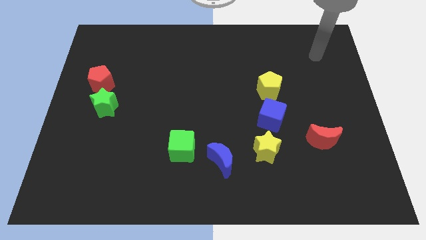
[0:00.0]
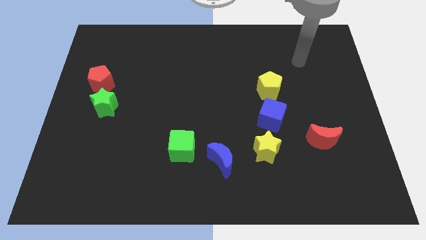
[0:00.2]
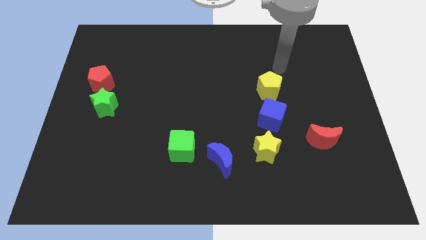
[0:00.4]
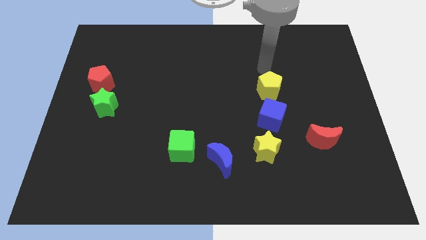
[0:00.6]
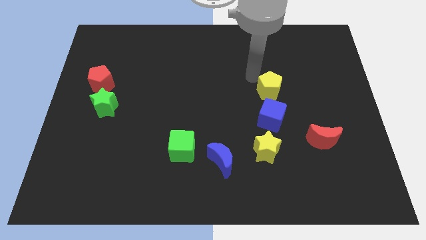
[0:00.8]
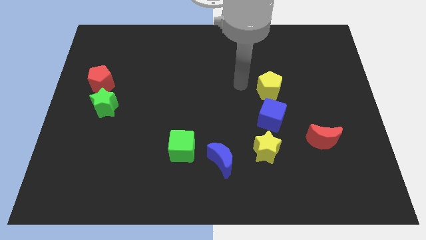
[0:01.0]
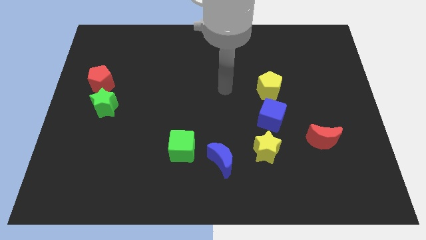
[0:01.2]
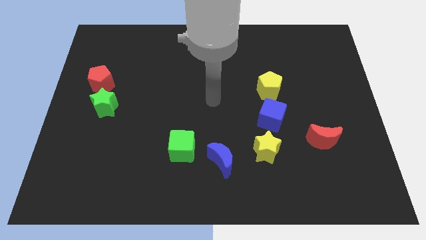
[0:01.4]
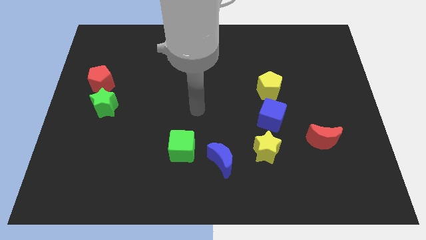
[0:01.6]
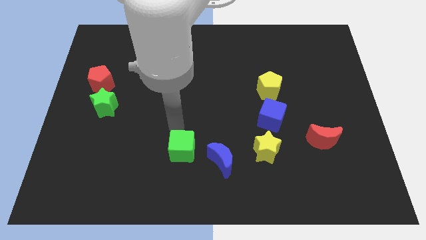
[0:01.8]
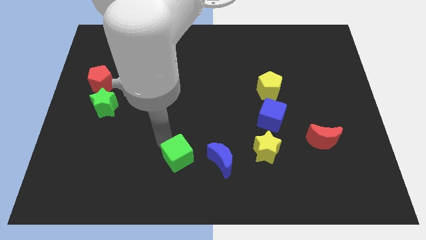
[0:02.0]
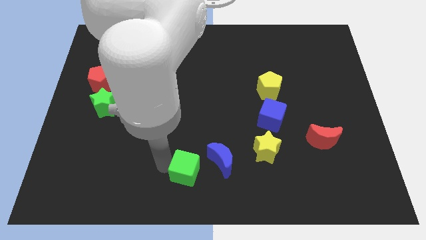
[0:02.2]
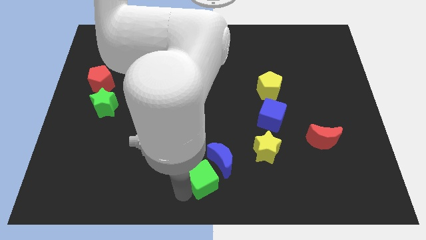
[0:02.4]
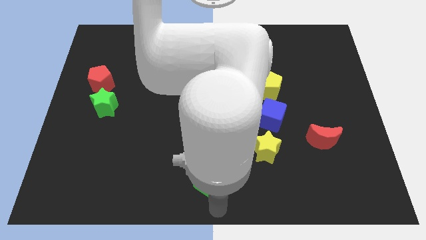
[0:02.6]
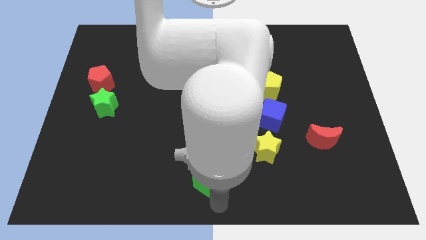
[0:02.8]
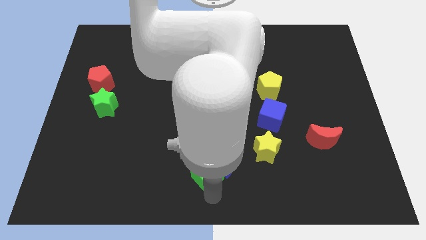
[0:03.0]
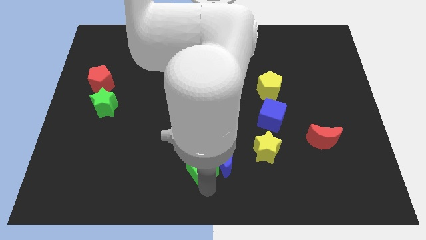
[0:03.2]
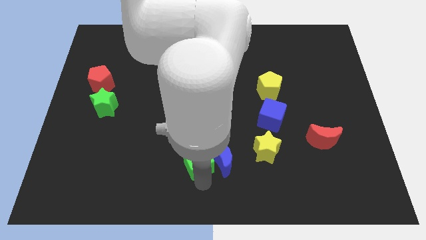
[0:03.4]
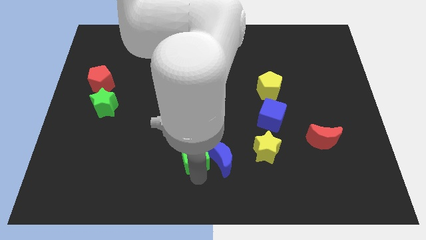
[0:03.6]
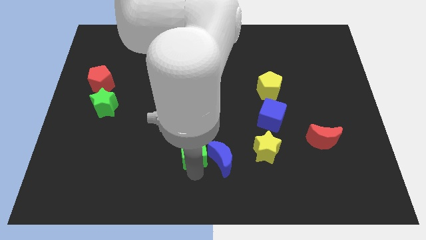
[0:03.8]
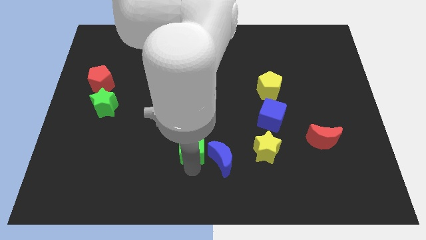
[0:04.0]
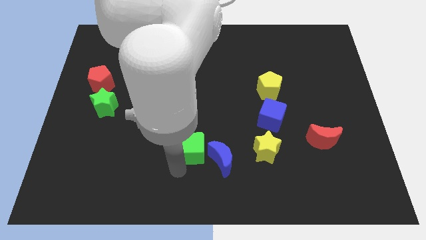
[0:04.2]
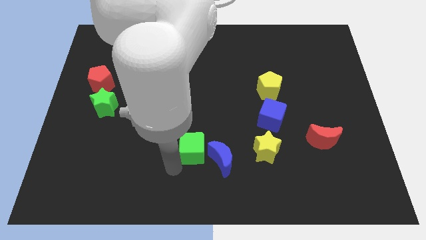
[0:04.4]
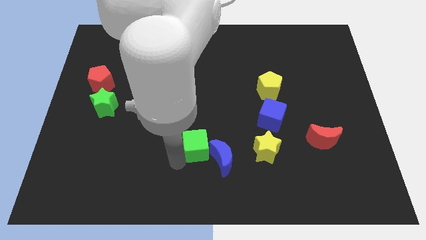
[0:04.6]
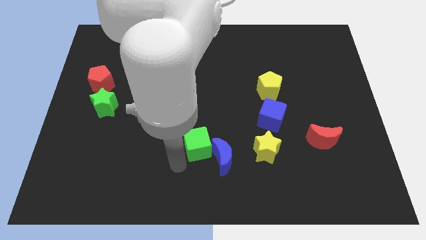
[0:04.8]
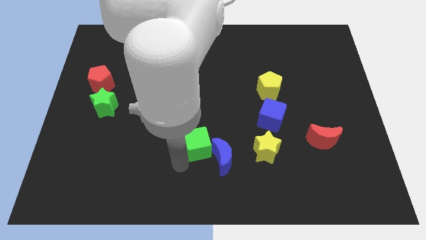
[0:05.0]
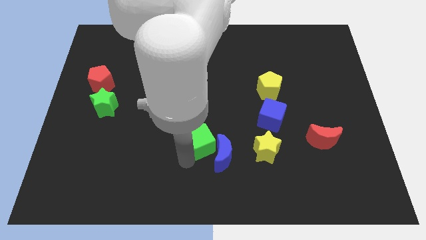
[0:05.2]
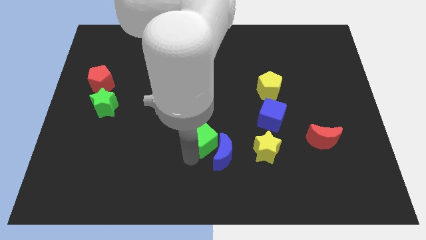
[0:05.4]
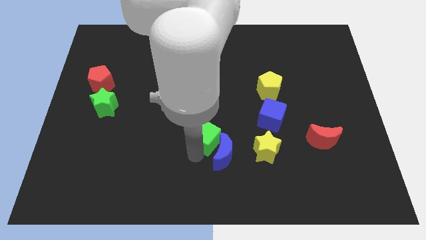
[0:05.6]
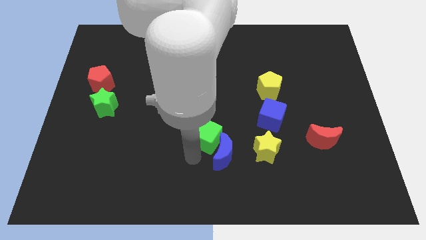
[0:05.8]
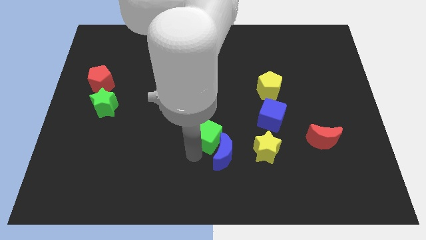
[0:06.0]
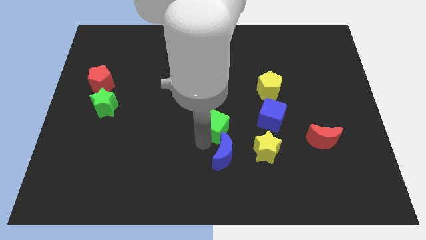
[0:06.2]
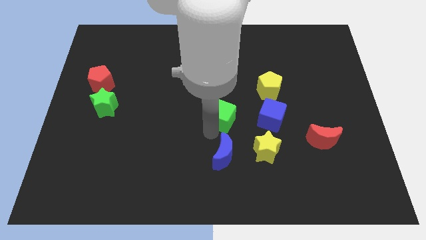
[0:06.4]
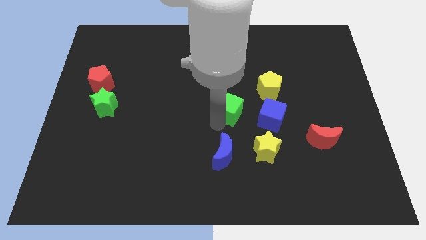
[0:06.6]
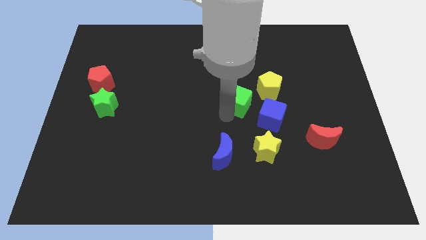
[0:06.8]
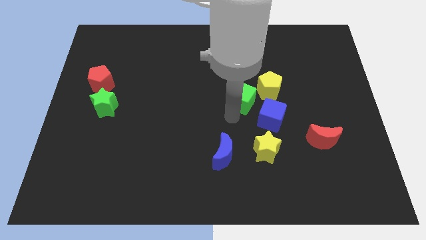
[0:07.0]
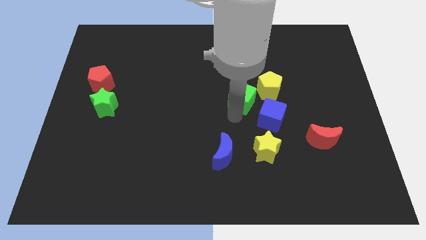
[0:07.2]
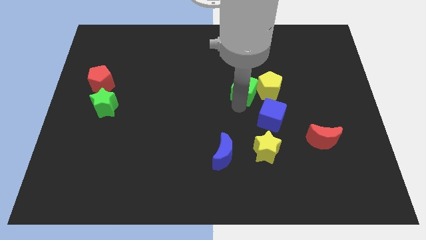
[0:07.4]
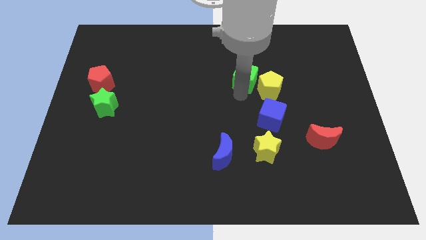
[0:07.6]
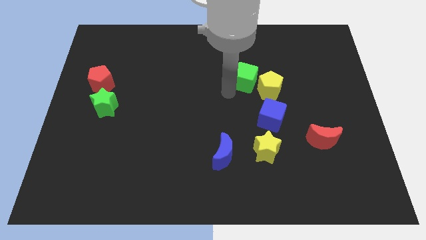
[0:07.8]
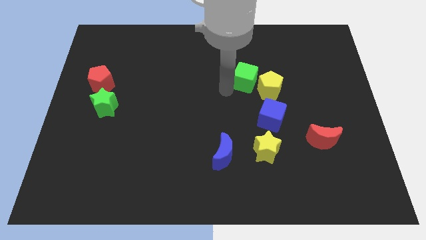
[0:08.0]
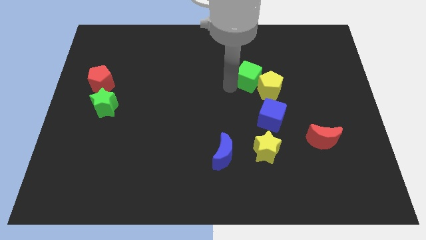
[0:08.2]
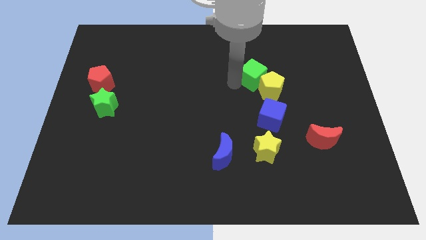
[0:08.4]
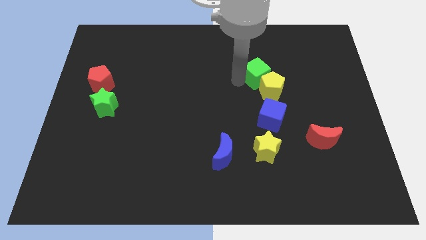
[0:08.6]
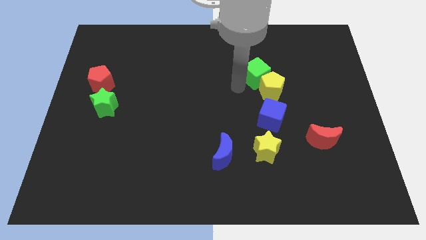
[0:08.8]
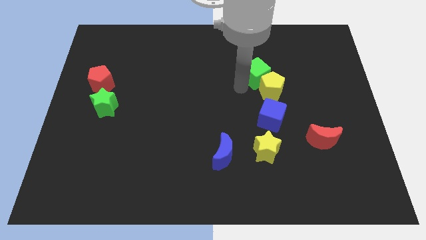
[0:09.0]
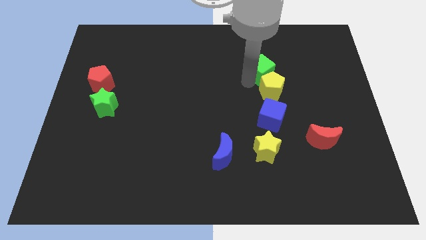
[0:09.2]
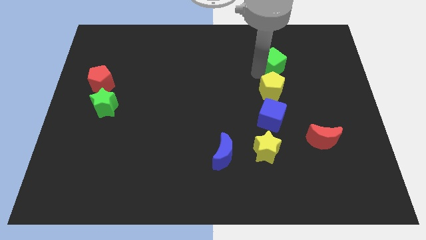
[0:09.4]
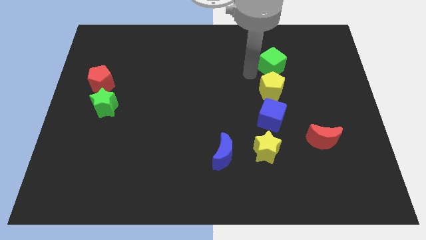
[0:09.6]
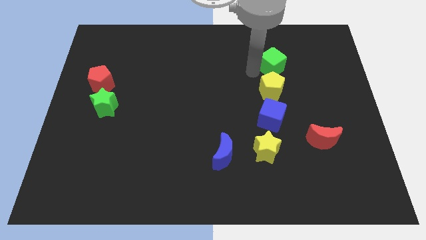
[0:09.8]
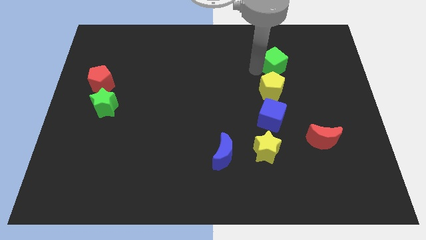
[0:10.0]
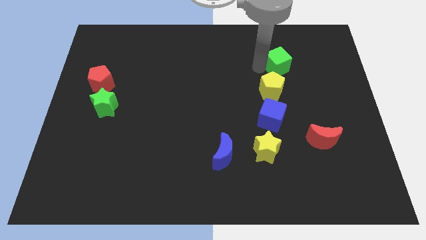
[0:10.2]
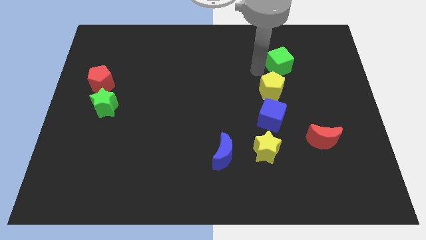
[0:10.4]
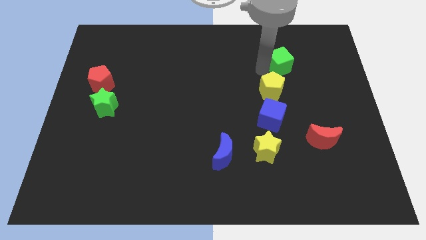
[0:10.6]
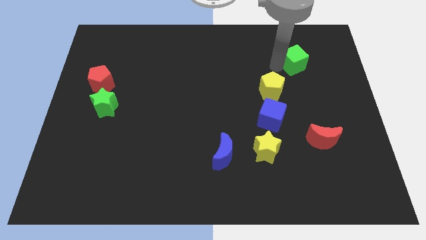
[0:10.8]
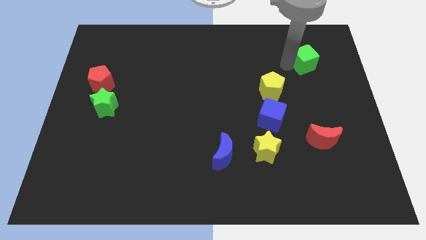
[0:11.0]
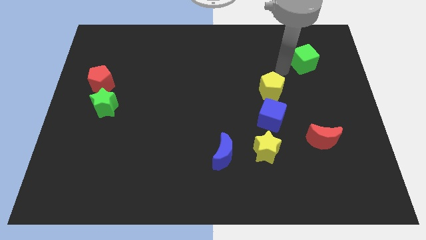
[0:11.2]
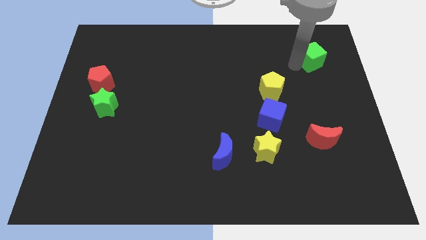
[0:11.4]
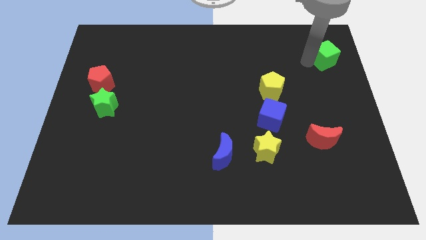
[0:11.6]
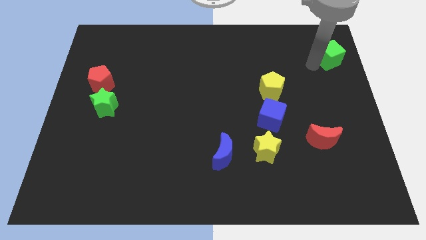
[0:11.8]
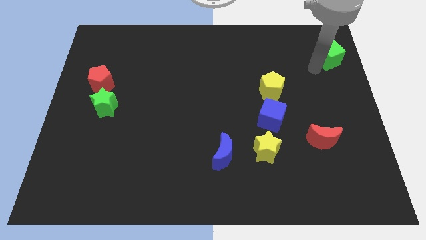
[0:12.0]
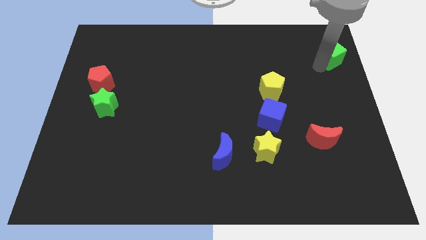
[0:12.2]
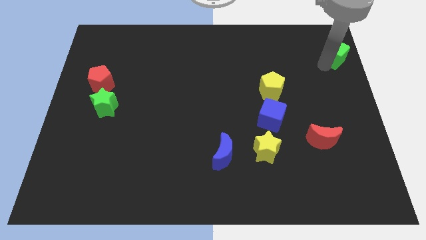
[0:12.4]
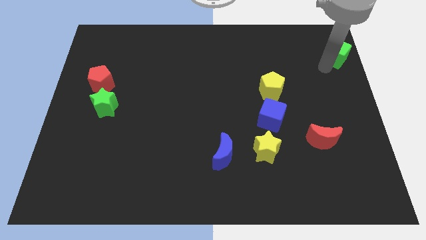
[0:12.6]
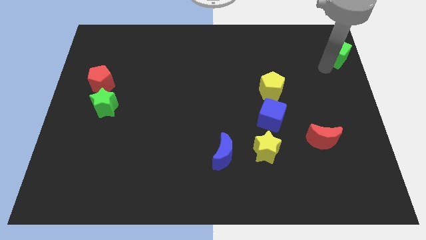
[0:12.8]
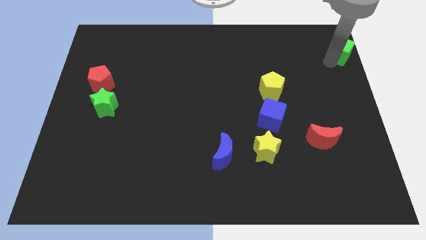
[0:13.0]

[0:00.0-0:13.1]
slide the green cube to the top right of the board
